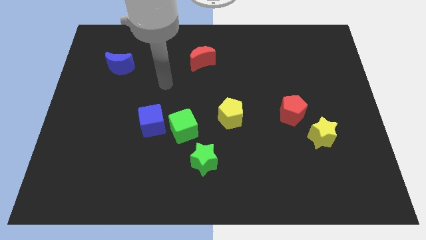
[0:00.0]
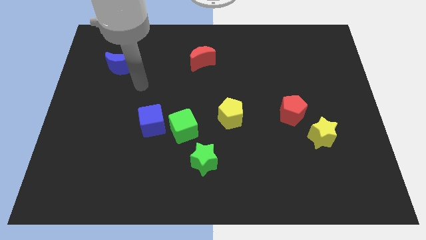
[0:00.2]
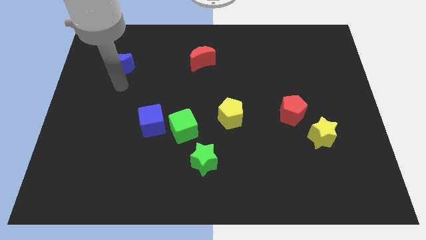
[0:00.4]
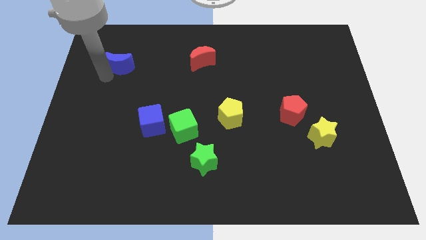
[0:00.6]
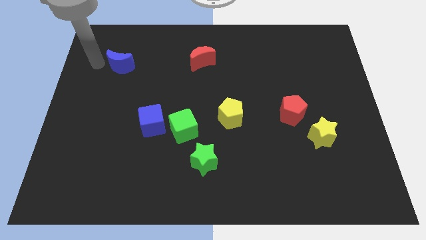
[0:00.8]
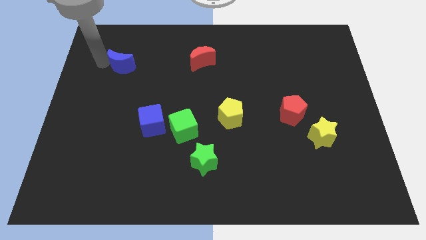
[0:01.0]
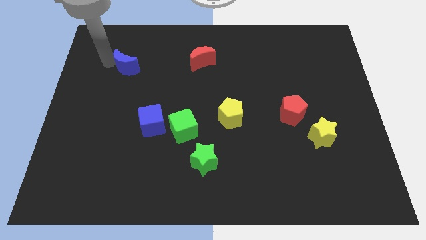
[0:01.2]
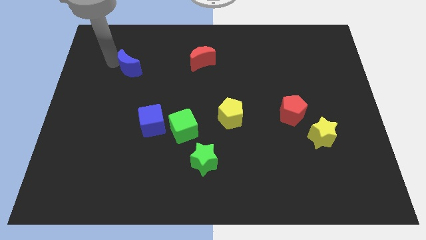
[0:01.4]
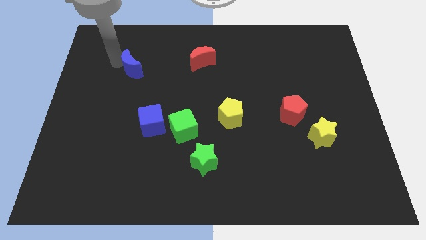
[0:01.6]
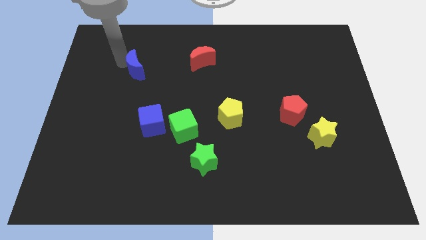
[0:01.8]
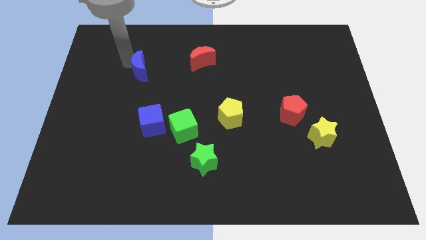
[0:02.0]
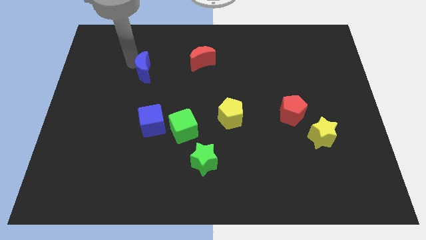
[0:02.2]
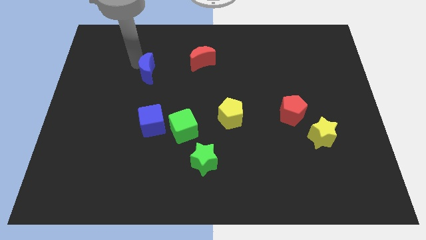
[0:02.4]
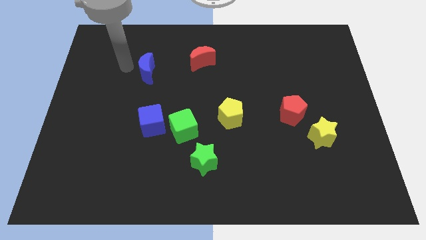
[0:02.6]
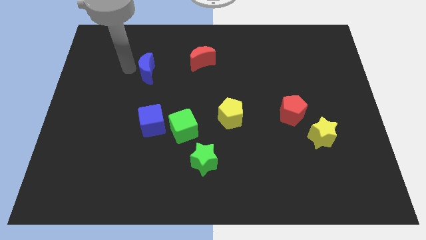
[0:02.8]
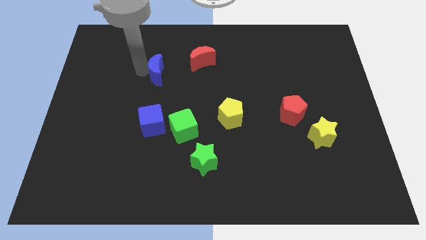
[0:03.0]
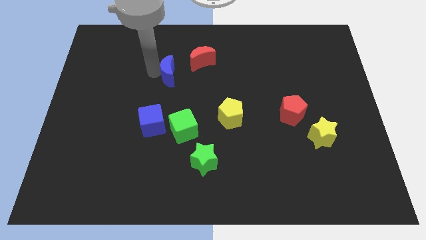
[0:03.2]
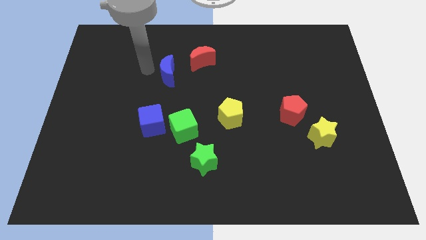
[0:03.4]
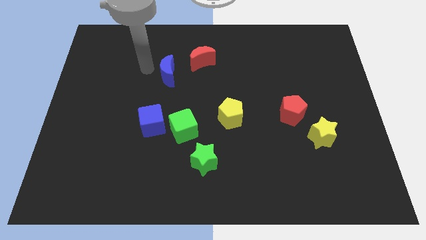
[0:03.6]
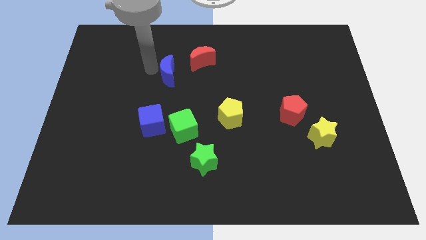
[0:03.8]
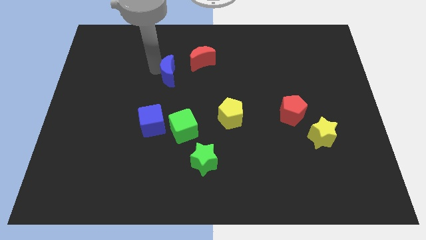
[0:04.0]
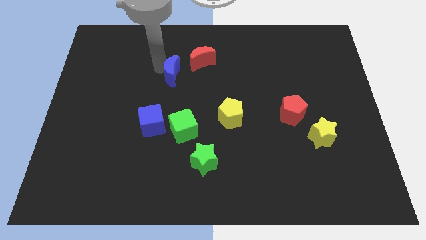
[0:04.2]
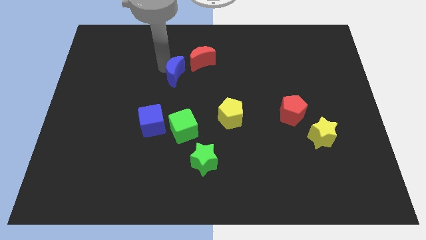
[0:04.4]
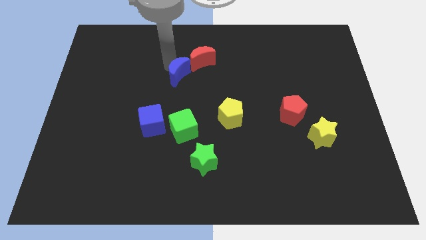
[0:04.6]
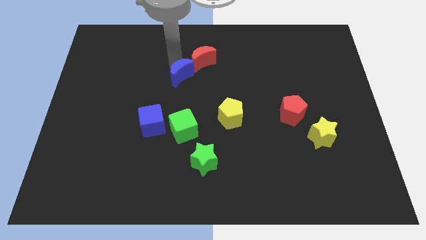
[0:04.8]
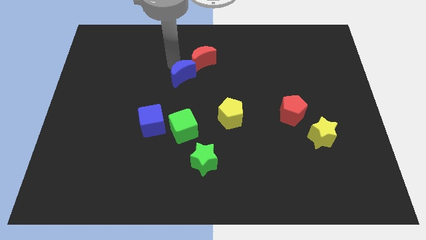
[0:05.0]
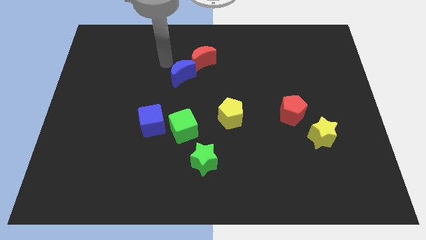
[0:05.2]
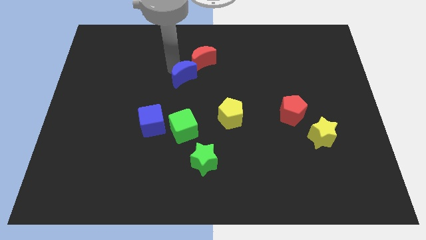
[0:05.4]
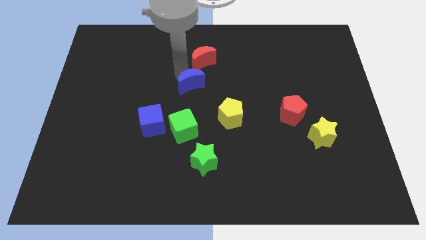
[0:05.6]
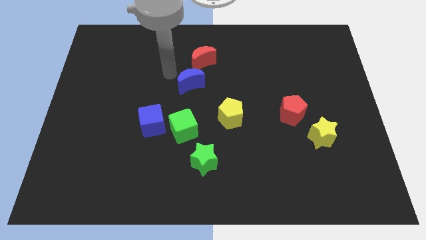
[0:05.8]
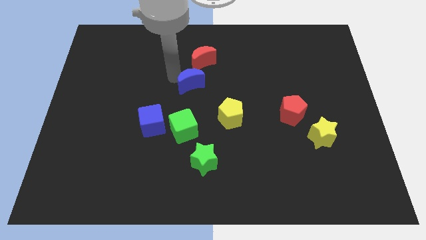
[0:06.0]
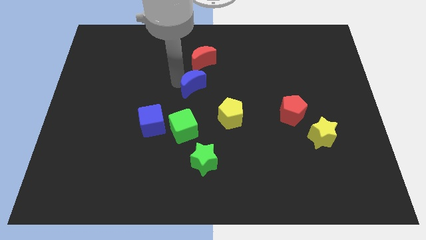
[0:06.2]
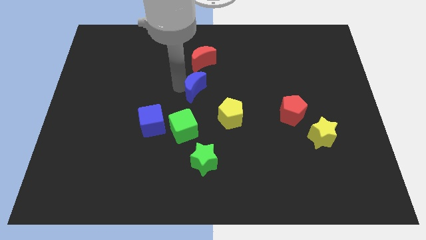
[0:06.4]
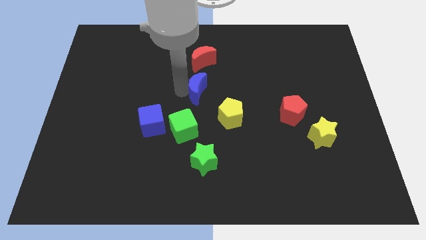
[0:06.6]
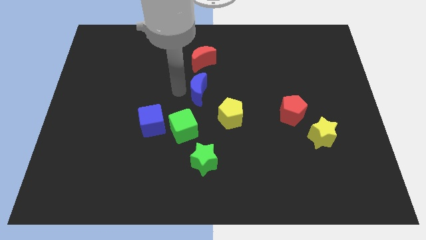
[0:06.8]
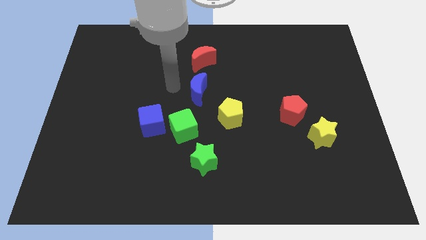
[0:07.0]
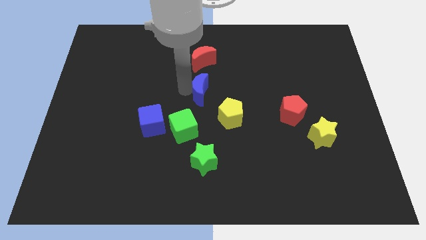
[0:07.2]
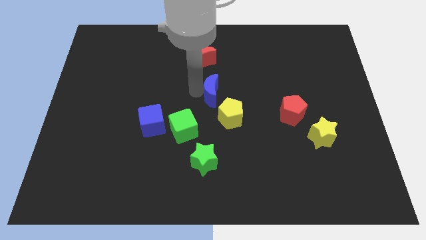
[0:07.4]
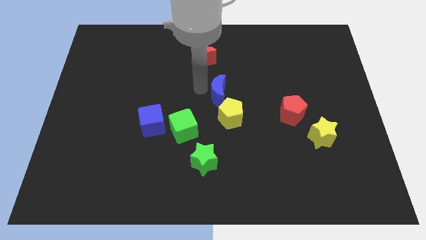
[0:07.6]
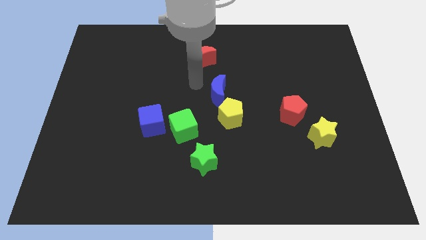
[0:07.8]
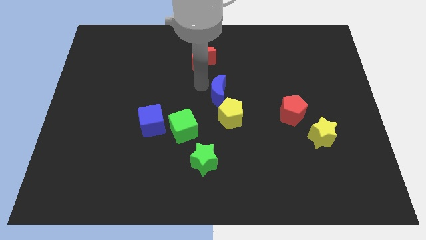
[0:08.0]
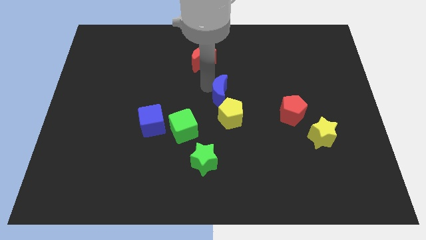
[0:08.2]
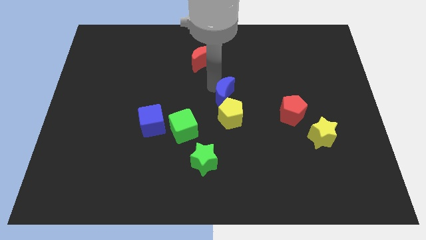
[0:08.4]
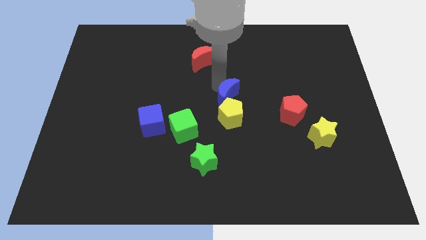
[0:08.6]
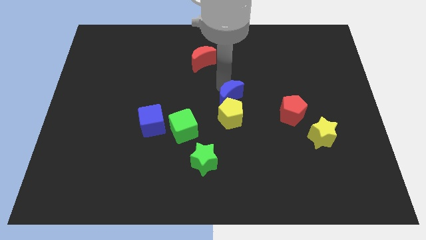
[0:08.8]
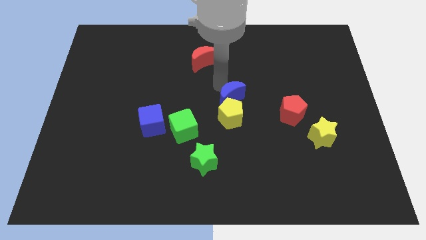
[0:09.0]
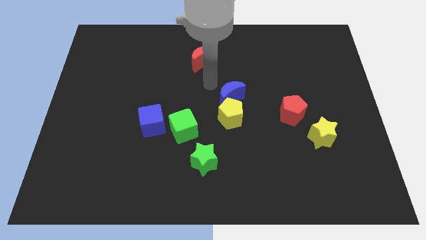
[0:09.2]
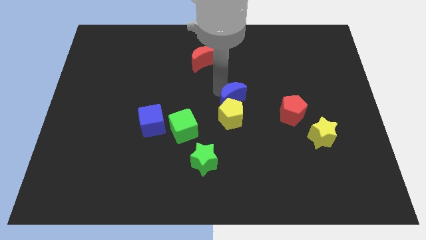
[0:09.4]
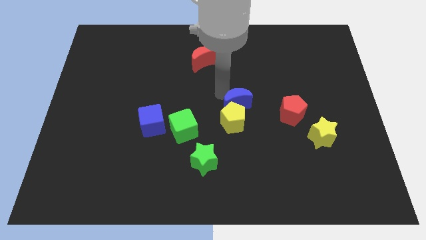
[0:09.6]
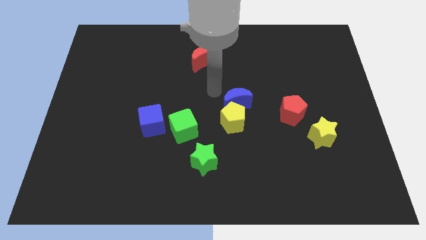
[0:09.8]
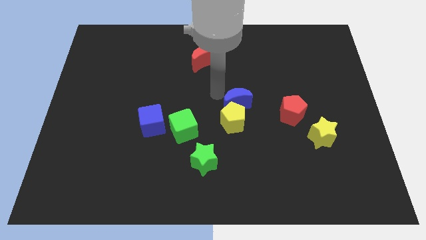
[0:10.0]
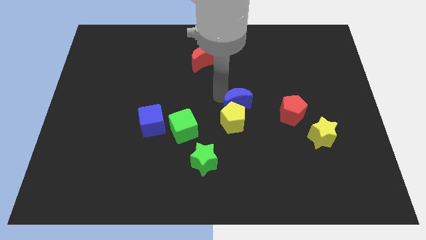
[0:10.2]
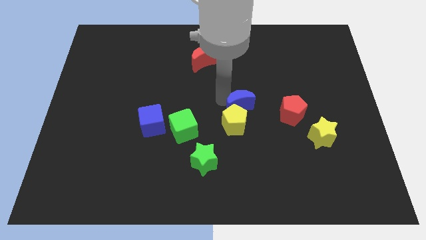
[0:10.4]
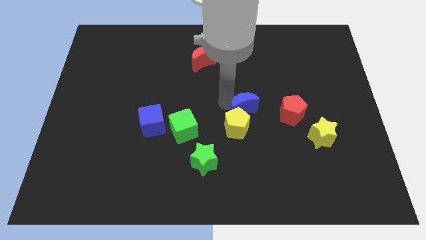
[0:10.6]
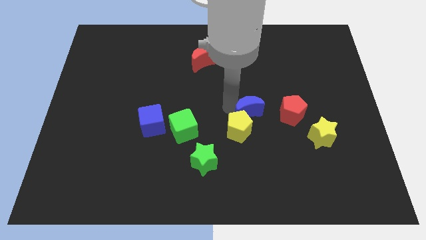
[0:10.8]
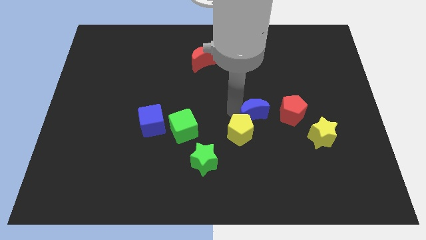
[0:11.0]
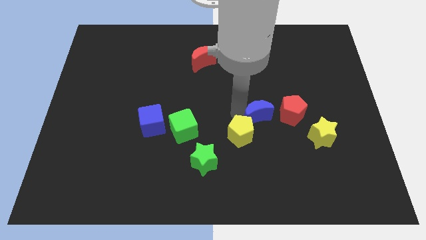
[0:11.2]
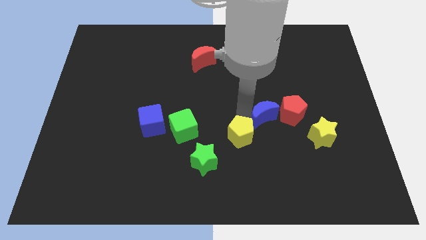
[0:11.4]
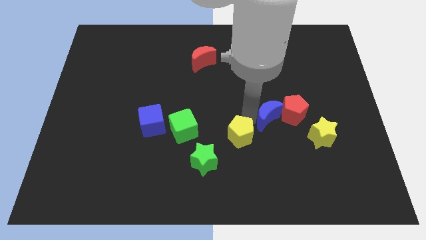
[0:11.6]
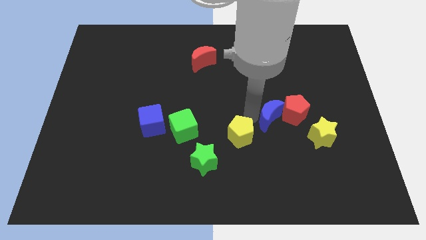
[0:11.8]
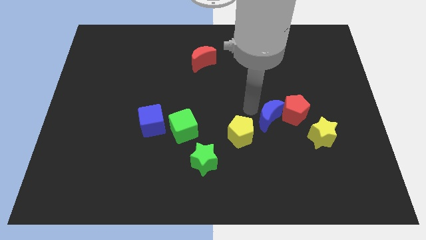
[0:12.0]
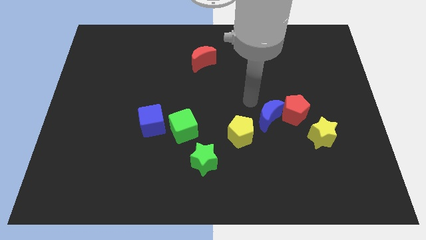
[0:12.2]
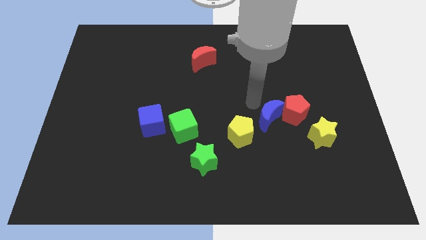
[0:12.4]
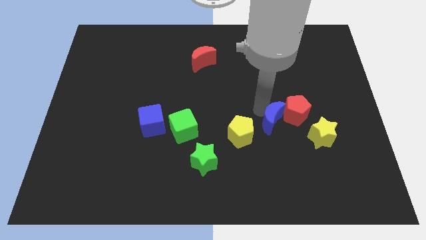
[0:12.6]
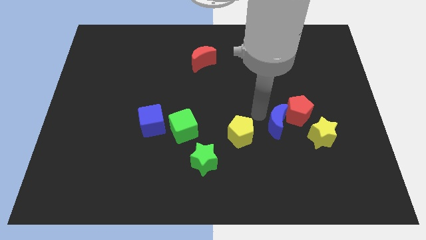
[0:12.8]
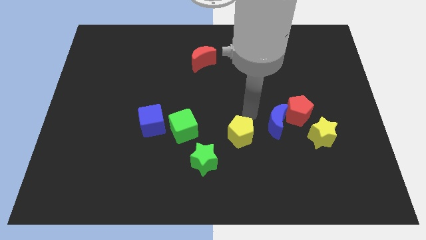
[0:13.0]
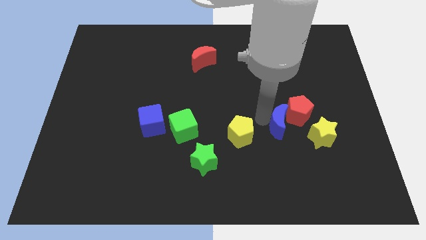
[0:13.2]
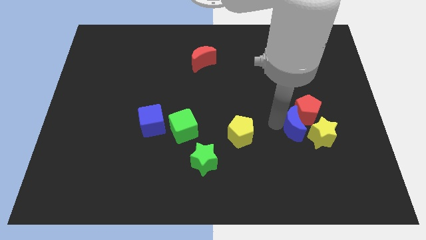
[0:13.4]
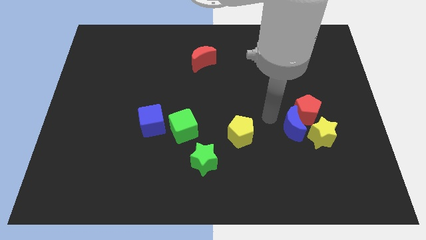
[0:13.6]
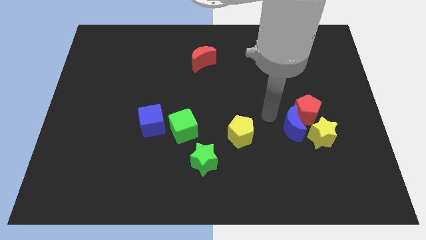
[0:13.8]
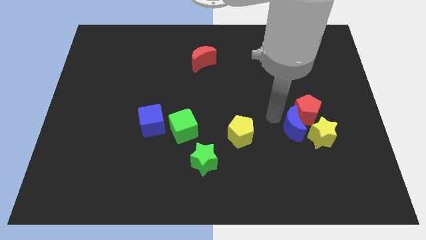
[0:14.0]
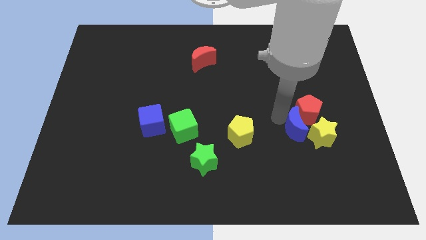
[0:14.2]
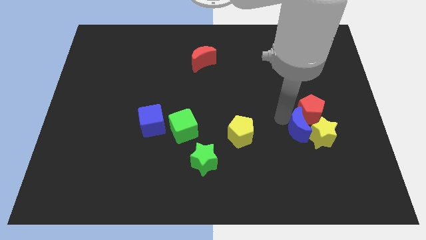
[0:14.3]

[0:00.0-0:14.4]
push the blue moon to the yellow star
